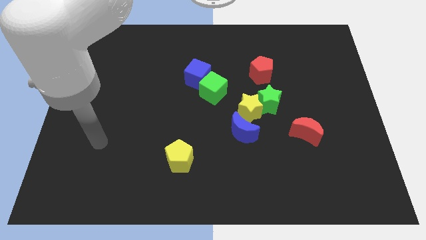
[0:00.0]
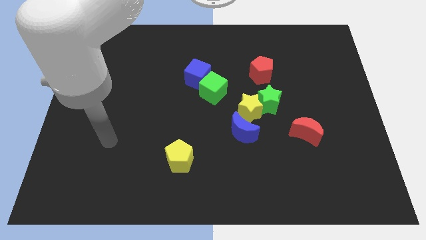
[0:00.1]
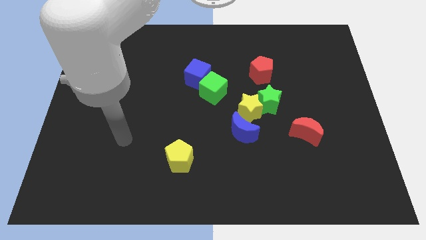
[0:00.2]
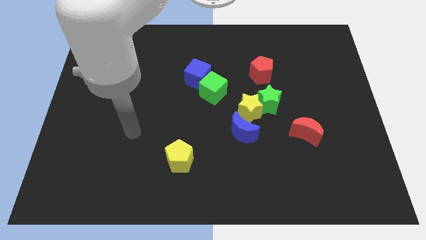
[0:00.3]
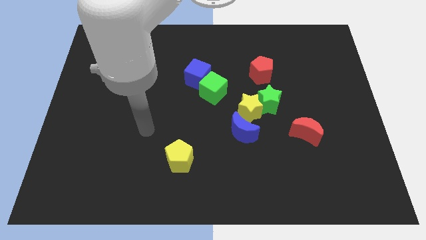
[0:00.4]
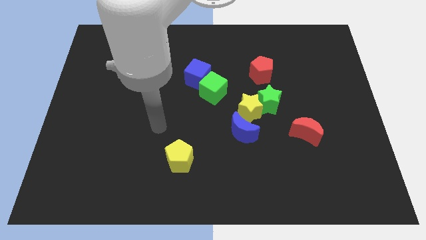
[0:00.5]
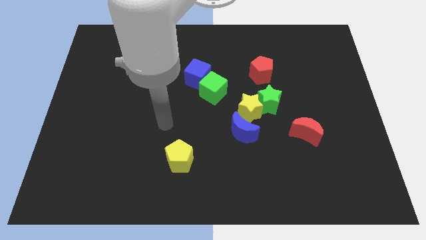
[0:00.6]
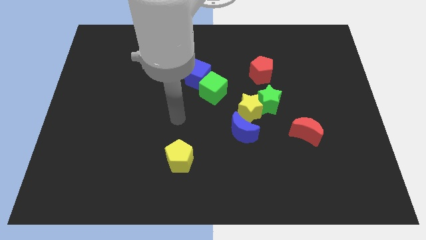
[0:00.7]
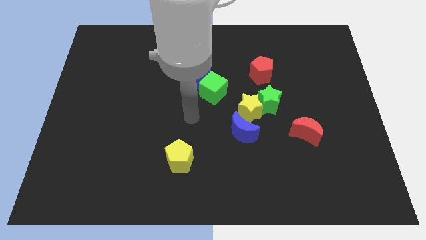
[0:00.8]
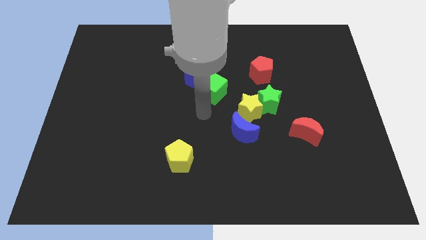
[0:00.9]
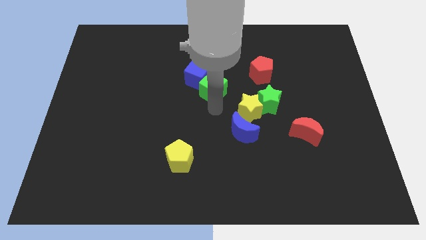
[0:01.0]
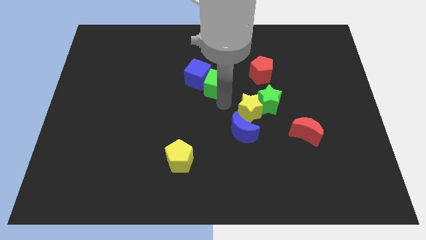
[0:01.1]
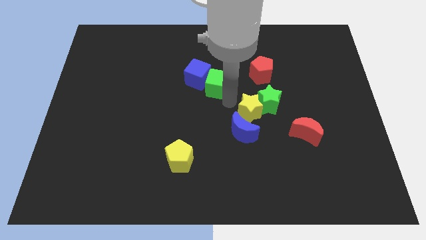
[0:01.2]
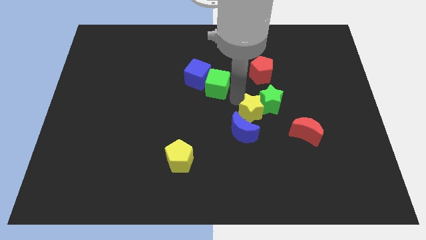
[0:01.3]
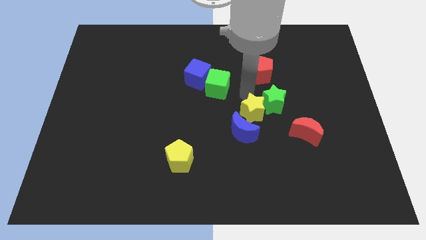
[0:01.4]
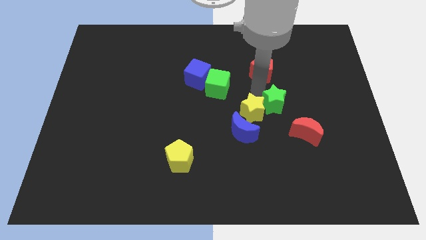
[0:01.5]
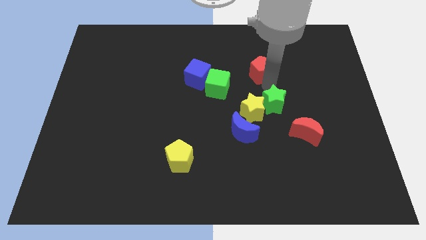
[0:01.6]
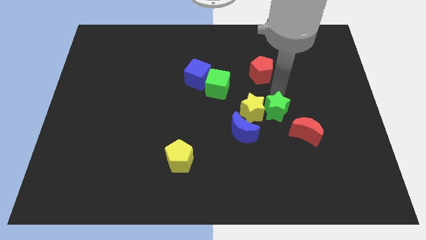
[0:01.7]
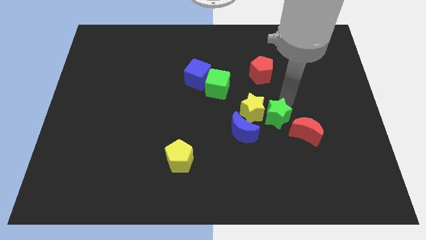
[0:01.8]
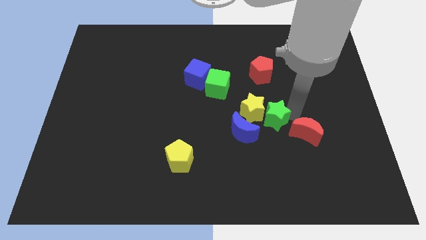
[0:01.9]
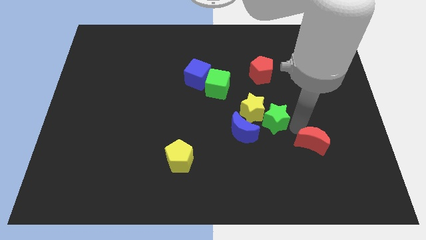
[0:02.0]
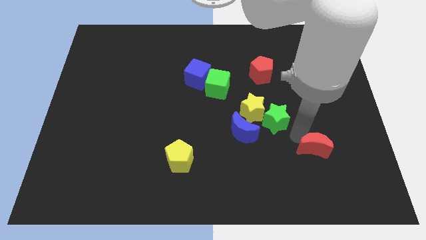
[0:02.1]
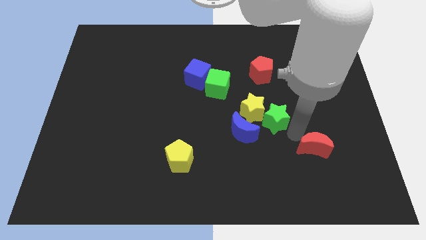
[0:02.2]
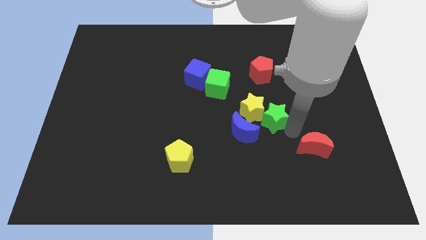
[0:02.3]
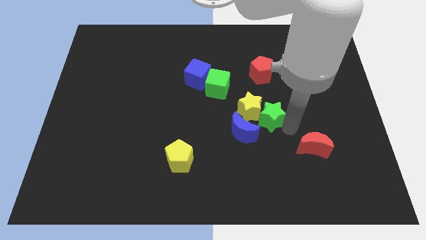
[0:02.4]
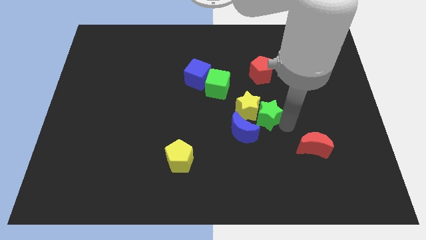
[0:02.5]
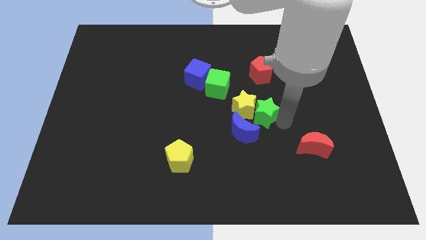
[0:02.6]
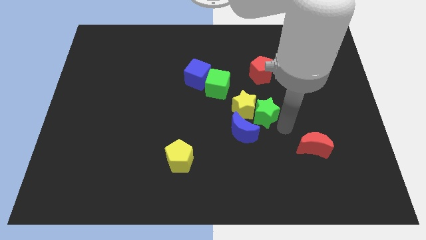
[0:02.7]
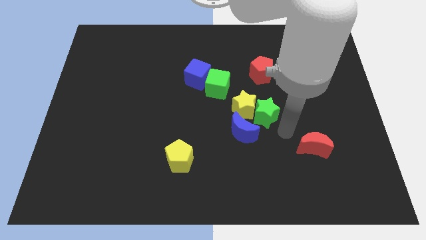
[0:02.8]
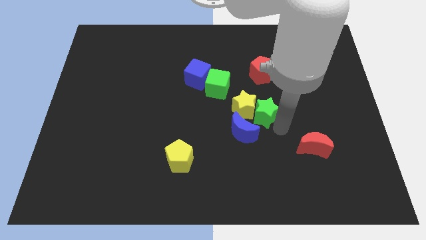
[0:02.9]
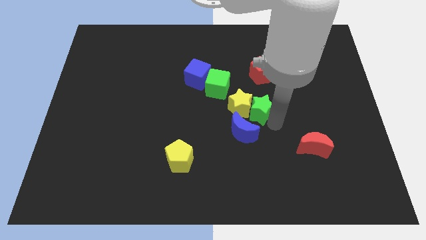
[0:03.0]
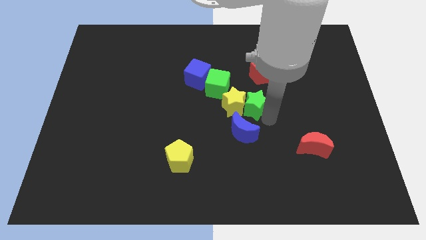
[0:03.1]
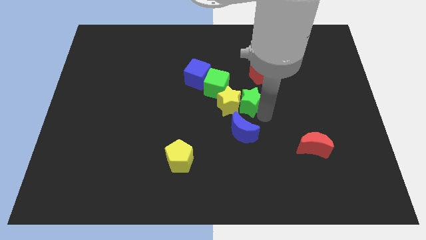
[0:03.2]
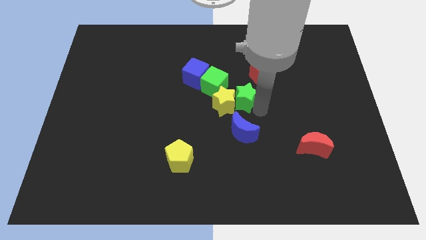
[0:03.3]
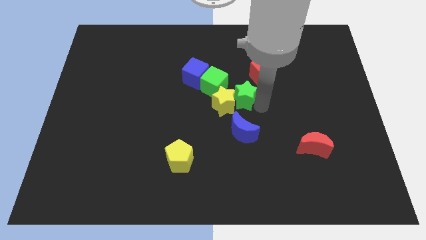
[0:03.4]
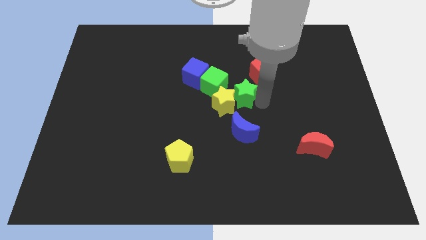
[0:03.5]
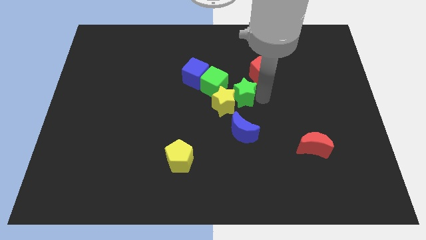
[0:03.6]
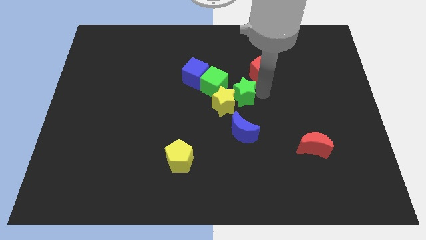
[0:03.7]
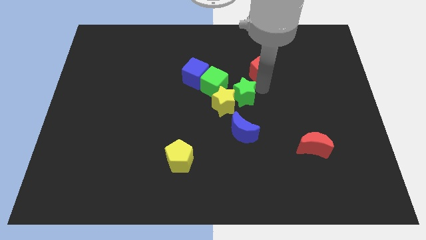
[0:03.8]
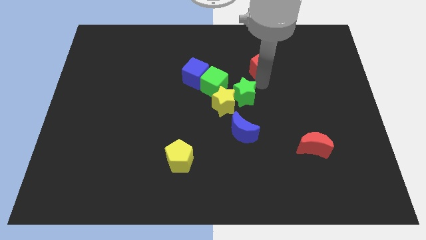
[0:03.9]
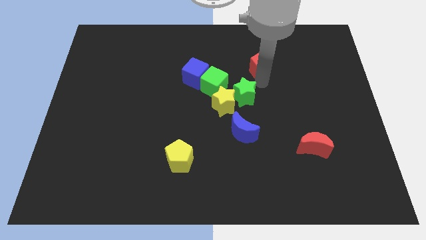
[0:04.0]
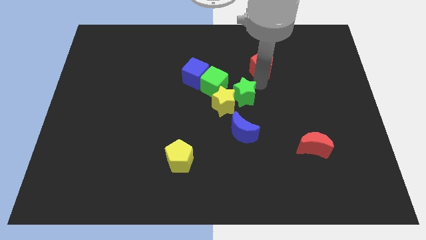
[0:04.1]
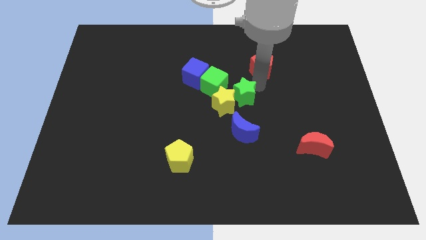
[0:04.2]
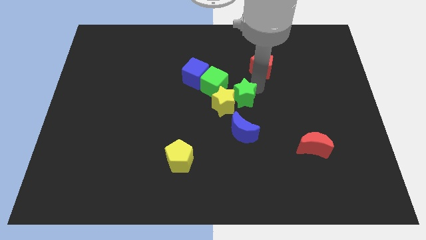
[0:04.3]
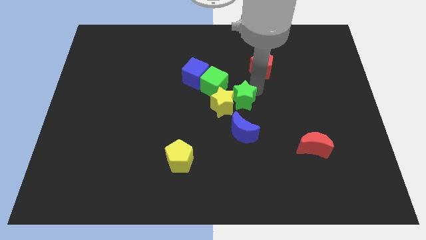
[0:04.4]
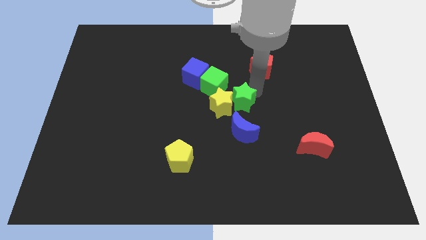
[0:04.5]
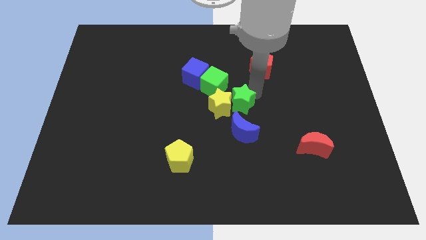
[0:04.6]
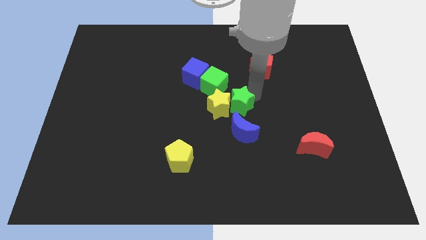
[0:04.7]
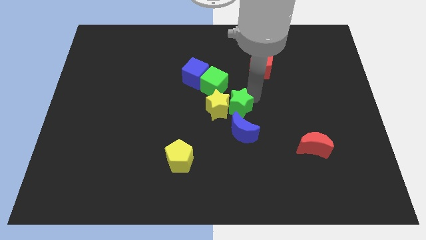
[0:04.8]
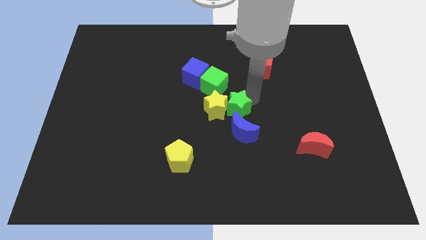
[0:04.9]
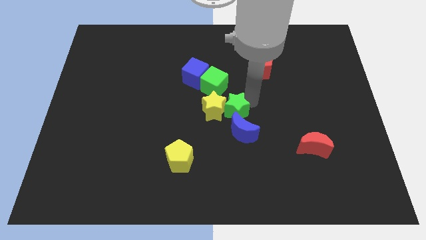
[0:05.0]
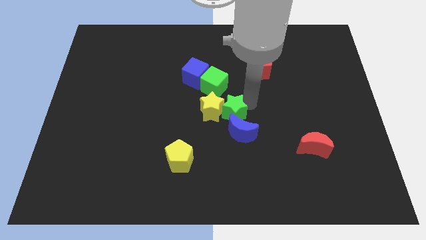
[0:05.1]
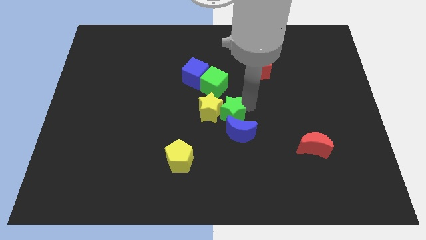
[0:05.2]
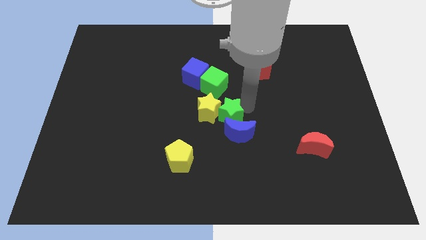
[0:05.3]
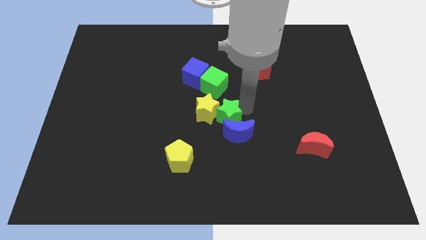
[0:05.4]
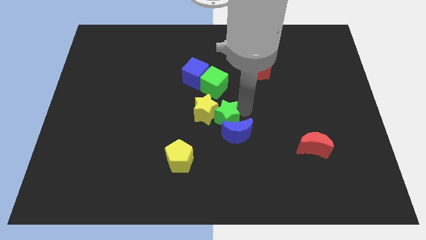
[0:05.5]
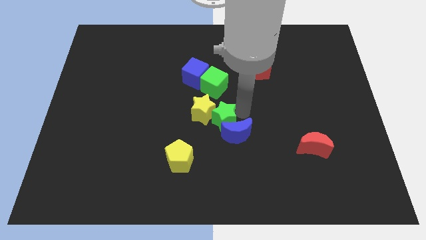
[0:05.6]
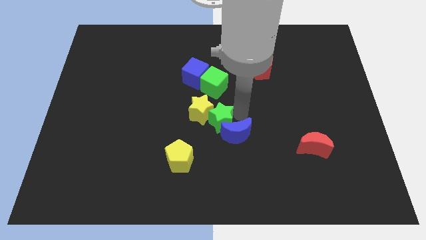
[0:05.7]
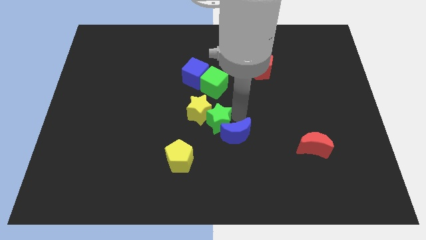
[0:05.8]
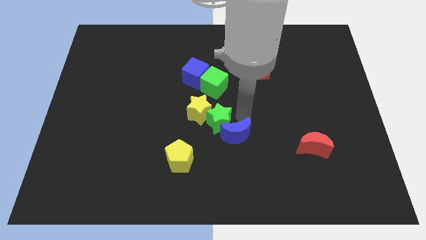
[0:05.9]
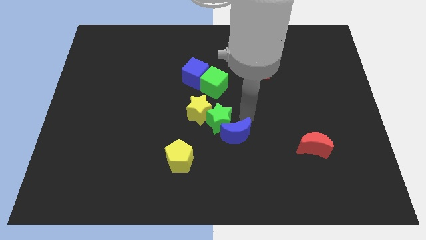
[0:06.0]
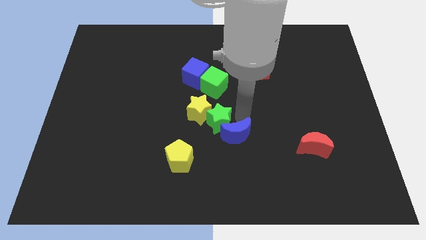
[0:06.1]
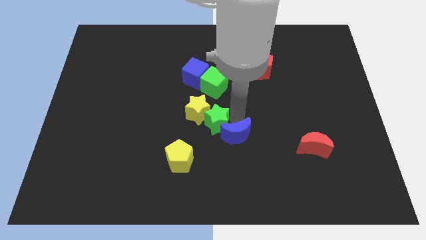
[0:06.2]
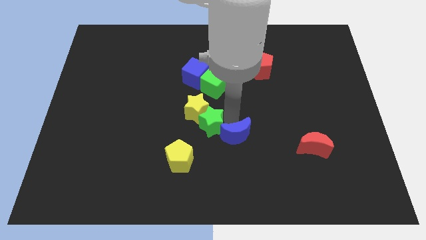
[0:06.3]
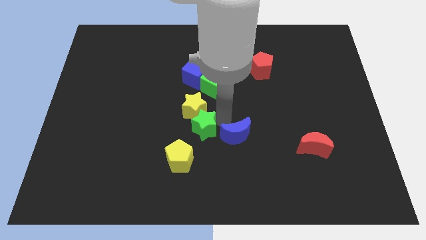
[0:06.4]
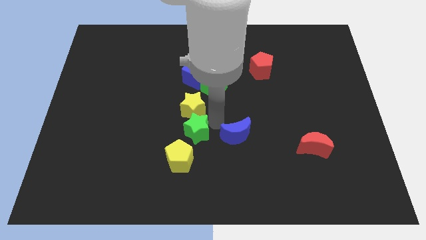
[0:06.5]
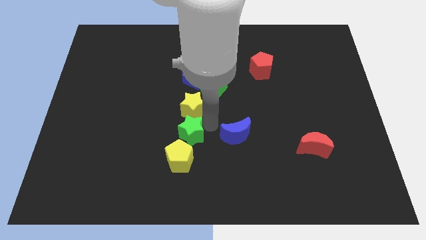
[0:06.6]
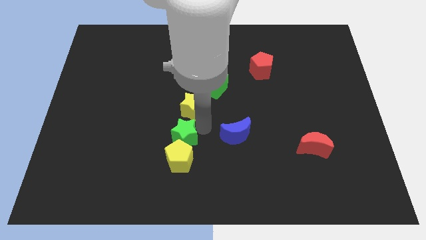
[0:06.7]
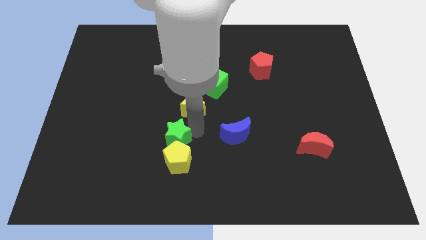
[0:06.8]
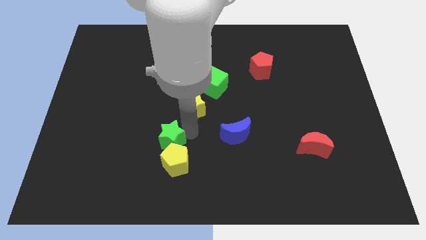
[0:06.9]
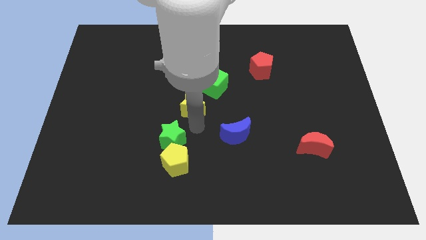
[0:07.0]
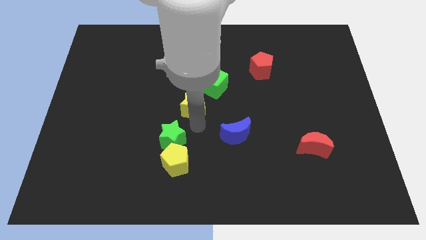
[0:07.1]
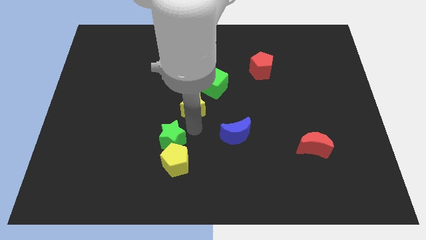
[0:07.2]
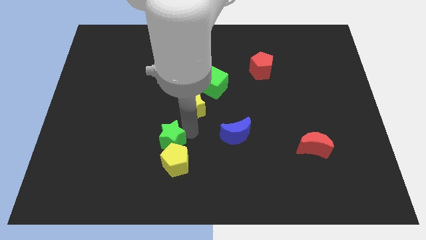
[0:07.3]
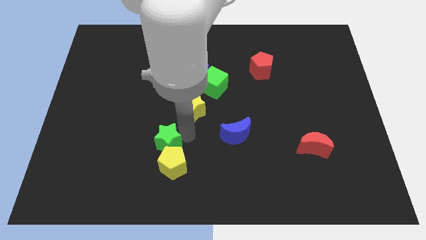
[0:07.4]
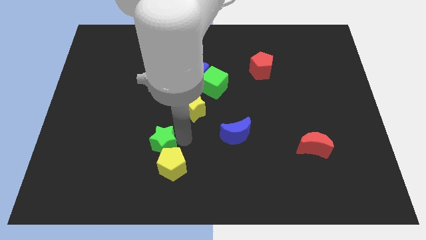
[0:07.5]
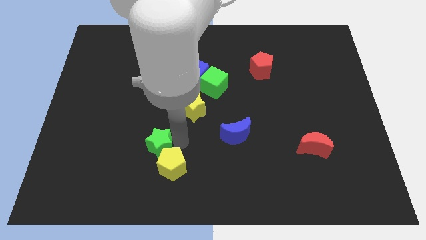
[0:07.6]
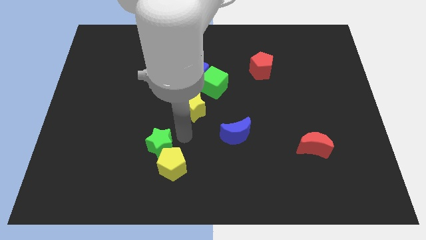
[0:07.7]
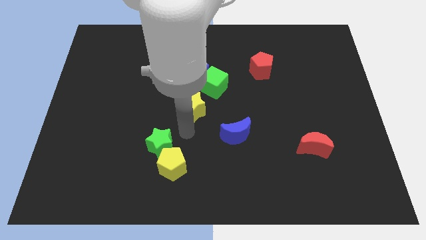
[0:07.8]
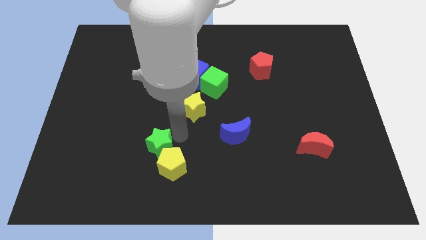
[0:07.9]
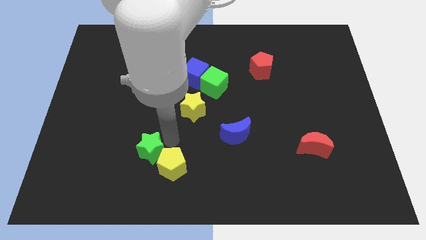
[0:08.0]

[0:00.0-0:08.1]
push the green star left of the yellow pentagon
